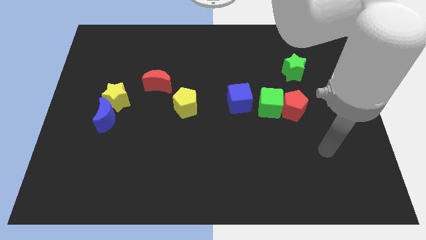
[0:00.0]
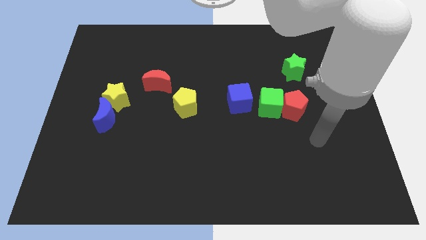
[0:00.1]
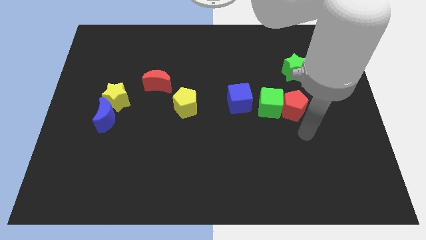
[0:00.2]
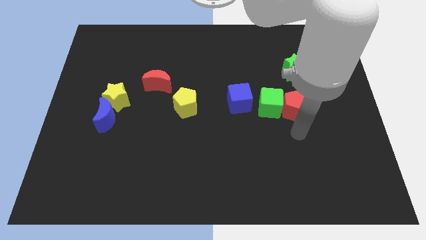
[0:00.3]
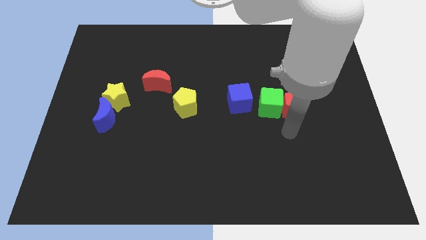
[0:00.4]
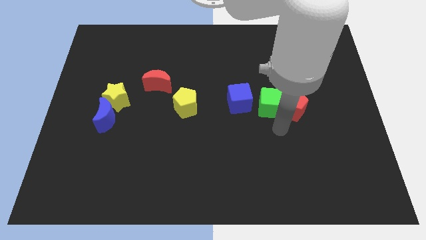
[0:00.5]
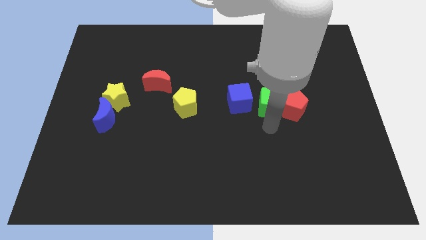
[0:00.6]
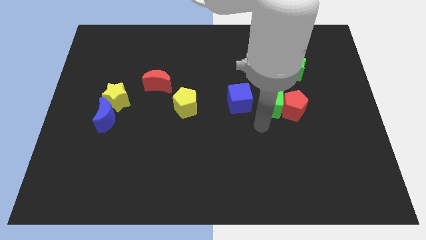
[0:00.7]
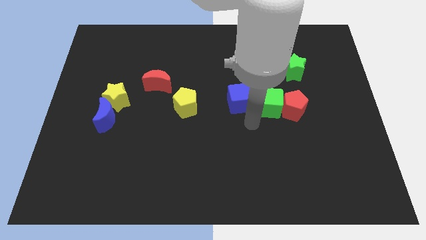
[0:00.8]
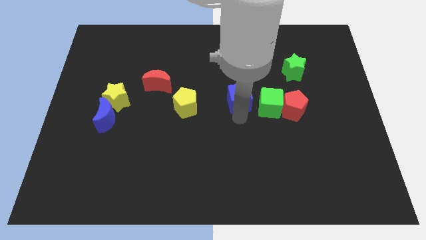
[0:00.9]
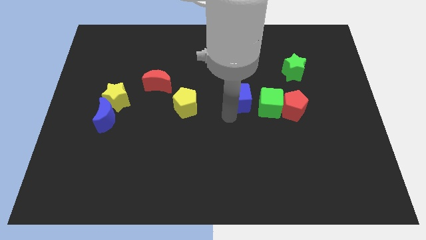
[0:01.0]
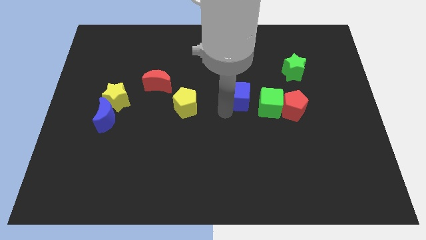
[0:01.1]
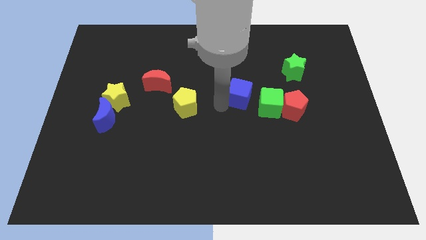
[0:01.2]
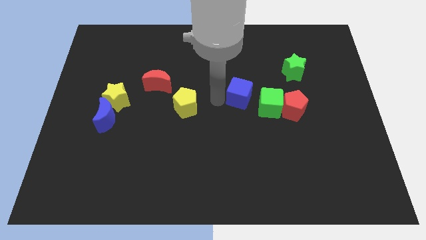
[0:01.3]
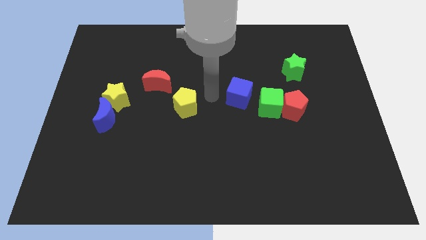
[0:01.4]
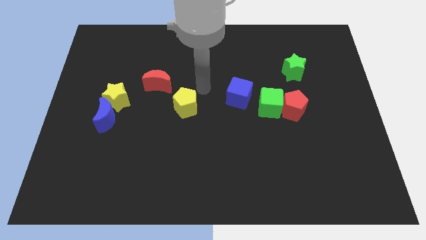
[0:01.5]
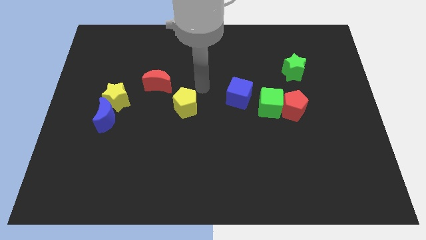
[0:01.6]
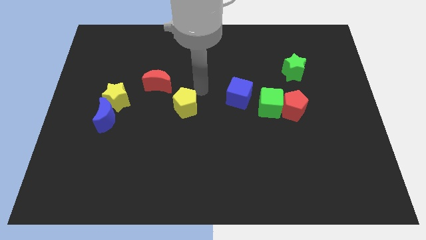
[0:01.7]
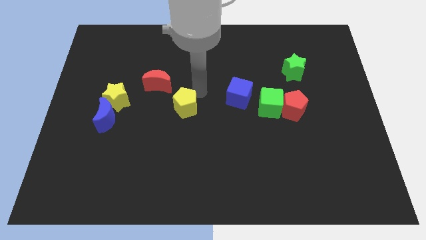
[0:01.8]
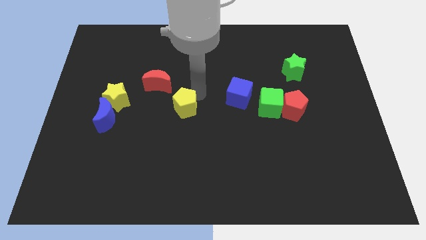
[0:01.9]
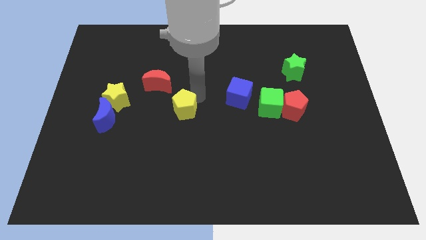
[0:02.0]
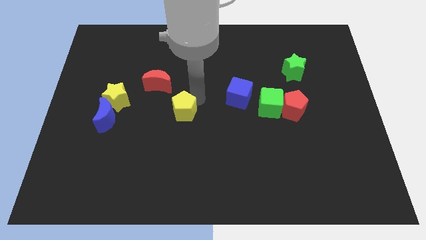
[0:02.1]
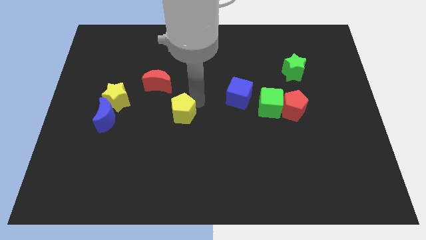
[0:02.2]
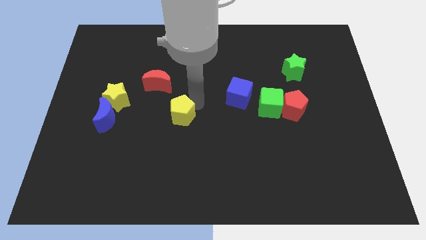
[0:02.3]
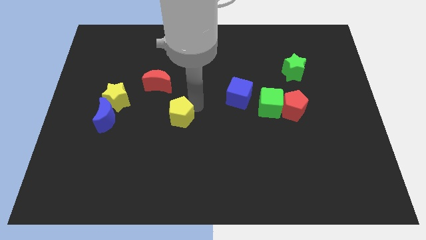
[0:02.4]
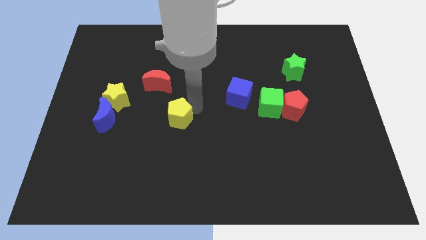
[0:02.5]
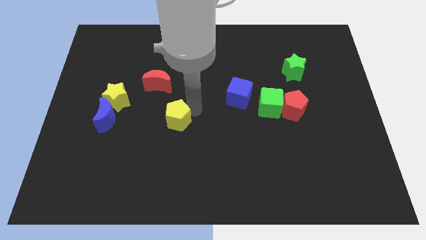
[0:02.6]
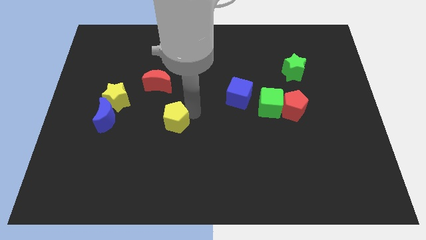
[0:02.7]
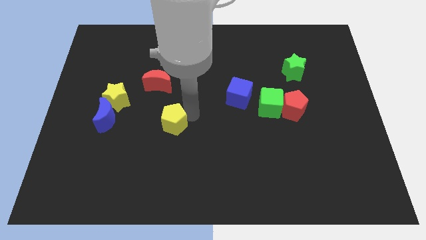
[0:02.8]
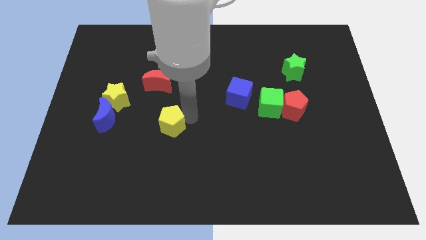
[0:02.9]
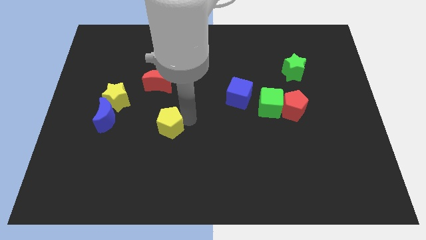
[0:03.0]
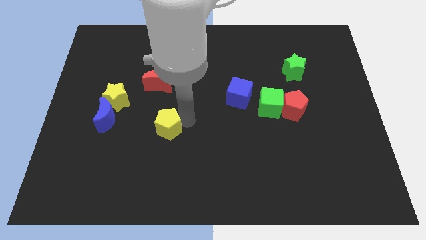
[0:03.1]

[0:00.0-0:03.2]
slightly push the yellow pentagon down and left

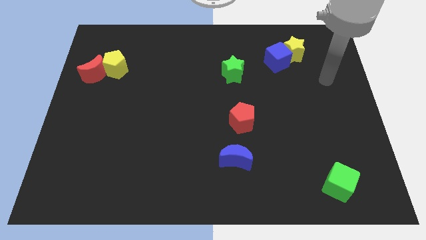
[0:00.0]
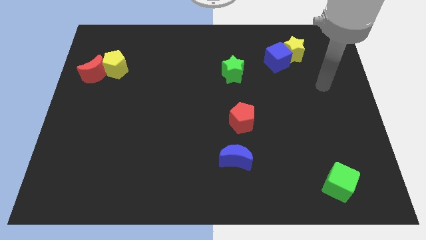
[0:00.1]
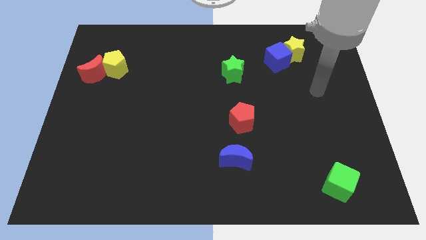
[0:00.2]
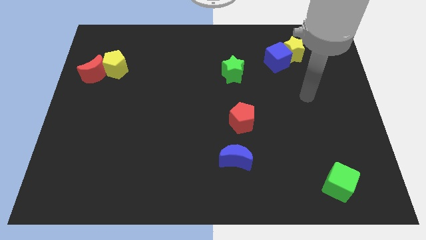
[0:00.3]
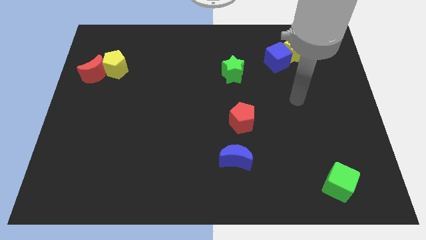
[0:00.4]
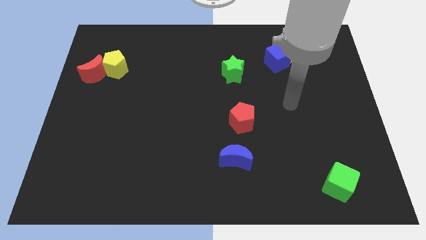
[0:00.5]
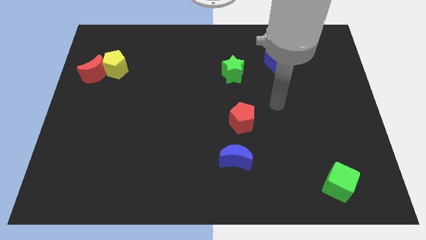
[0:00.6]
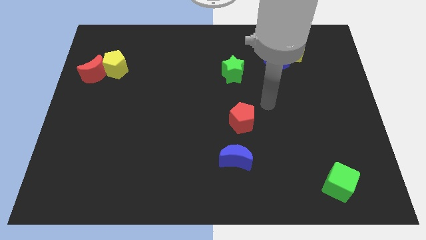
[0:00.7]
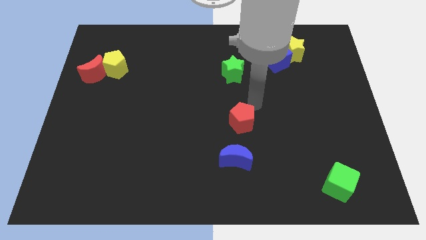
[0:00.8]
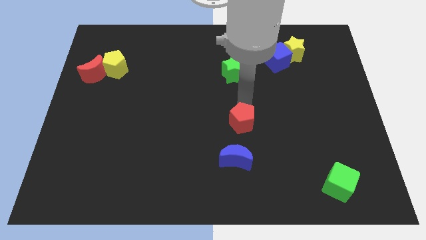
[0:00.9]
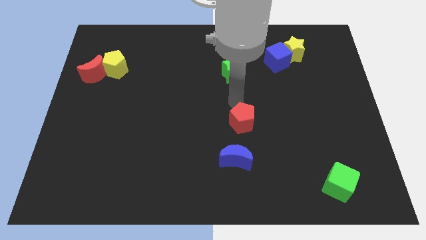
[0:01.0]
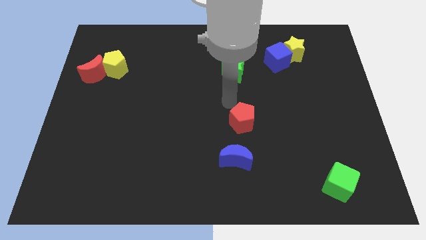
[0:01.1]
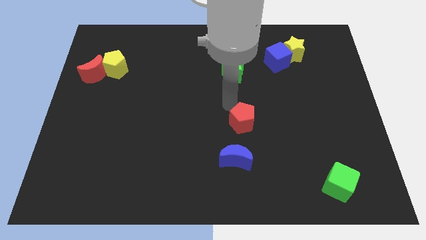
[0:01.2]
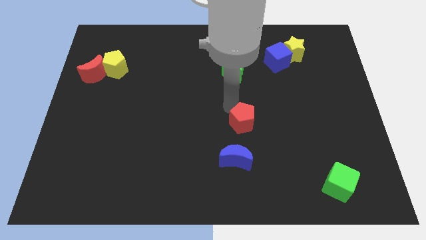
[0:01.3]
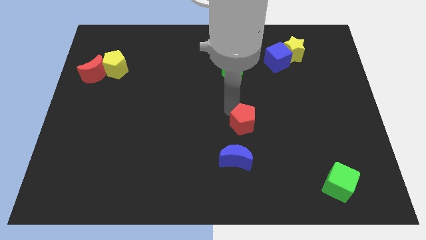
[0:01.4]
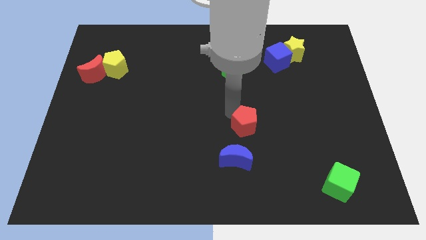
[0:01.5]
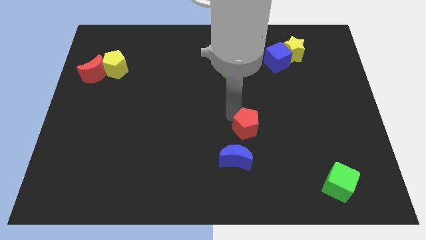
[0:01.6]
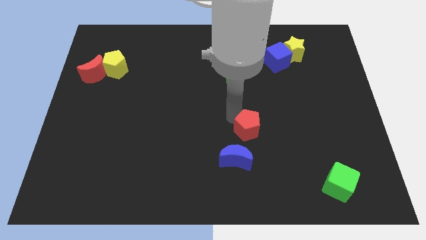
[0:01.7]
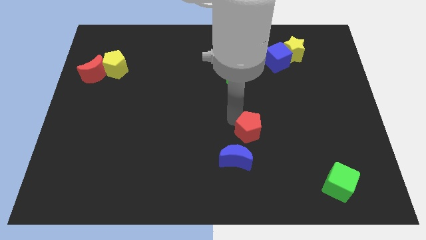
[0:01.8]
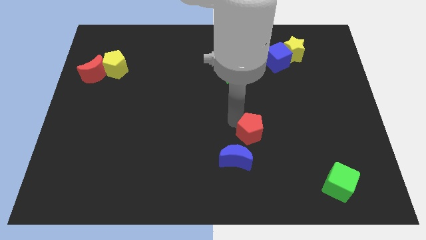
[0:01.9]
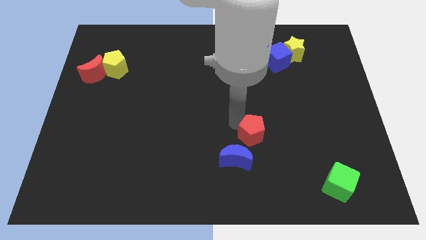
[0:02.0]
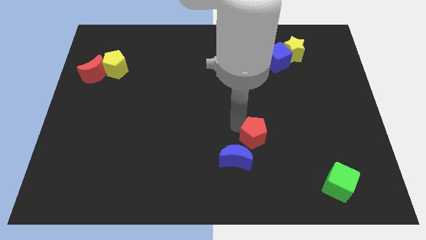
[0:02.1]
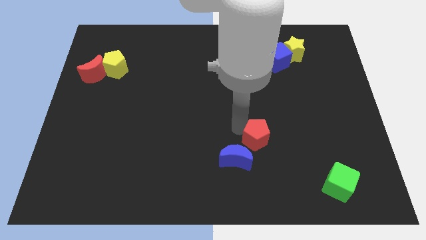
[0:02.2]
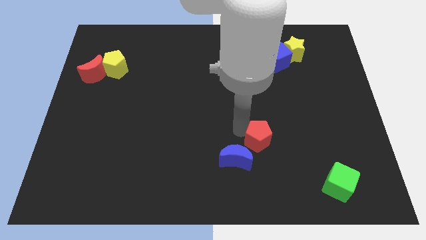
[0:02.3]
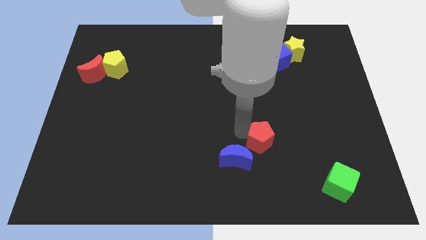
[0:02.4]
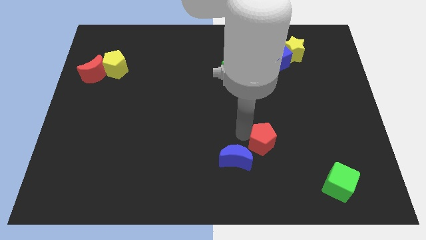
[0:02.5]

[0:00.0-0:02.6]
slide the red pentagon diagonally downwards and to the right a bit

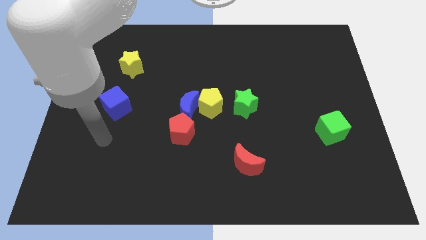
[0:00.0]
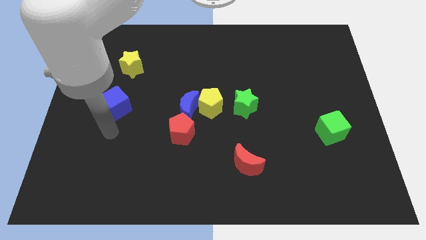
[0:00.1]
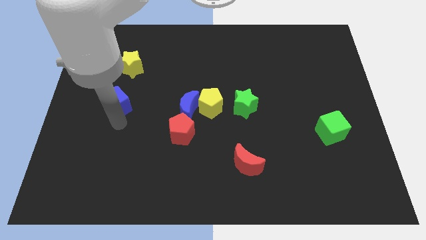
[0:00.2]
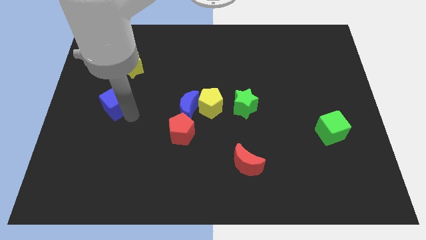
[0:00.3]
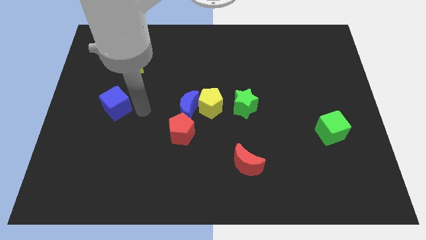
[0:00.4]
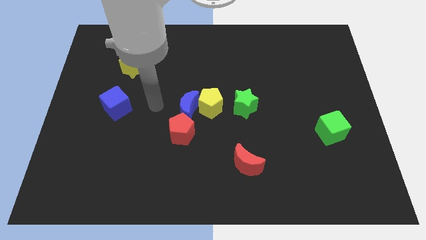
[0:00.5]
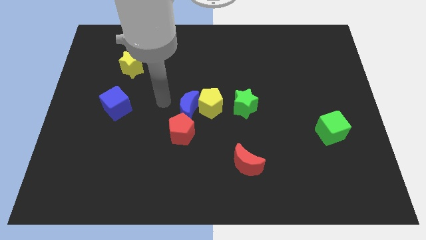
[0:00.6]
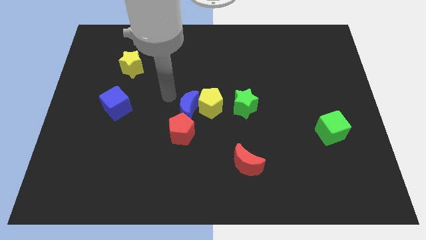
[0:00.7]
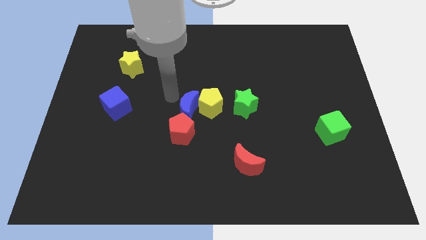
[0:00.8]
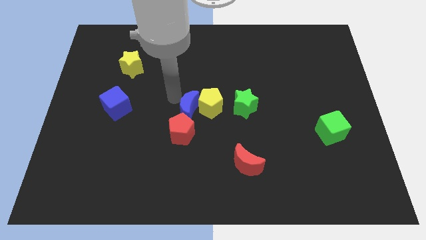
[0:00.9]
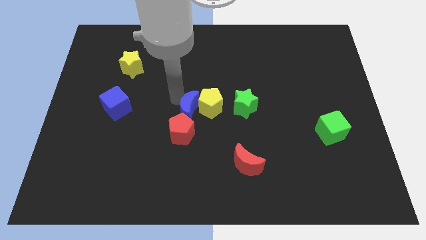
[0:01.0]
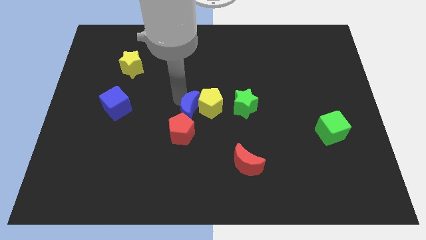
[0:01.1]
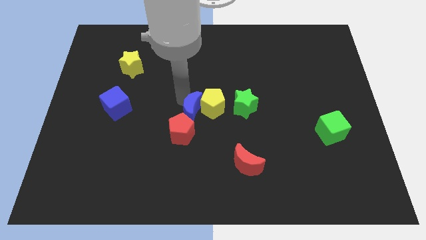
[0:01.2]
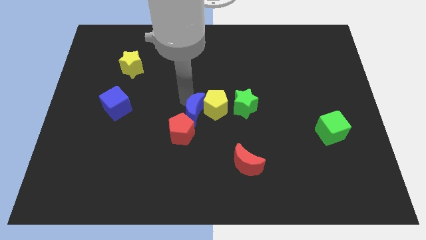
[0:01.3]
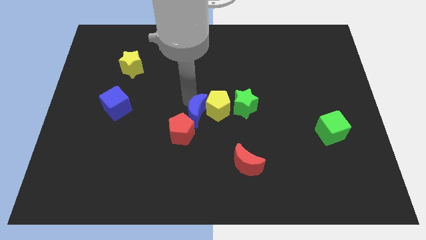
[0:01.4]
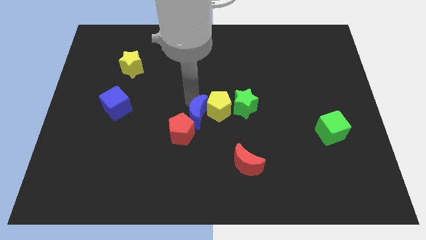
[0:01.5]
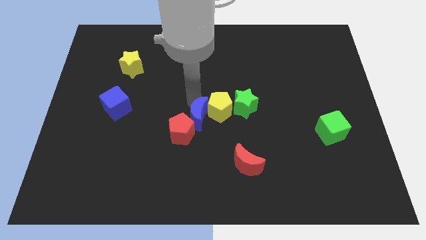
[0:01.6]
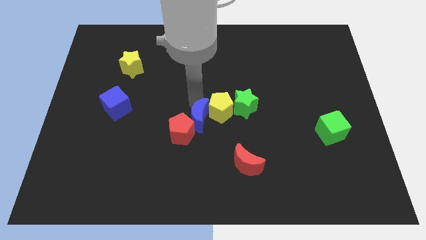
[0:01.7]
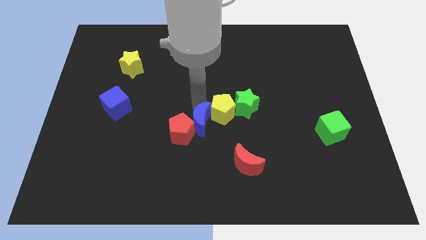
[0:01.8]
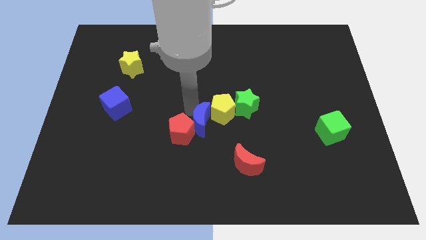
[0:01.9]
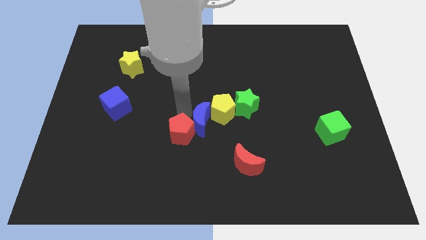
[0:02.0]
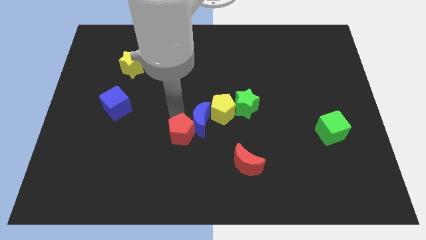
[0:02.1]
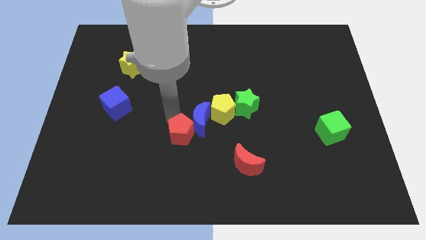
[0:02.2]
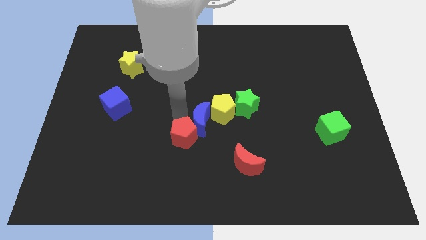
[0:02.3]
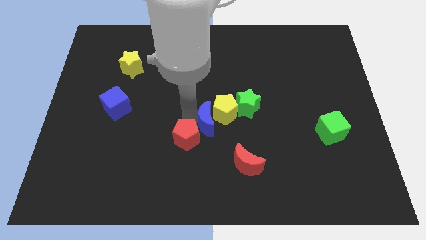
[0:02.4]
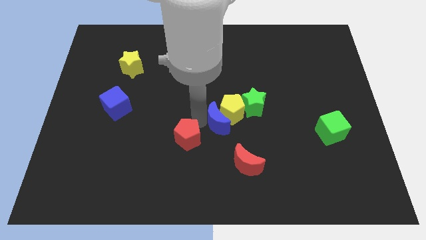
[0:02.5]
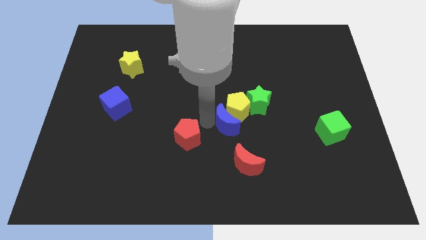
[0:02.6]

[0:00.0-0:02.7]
slide the blue moon right slightly
